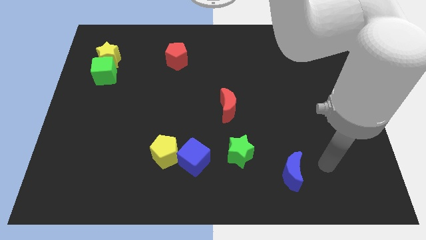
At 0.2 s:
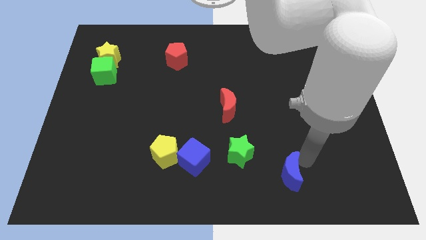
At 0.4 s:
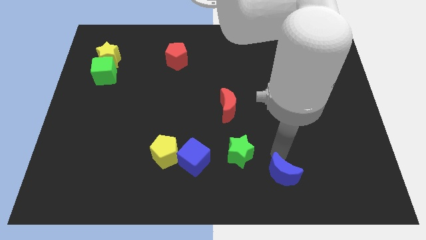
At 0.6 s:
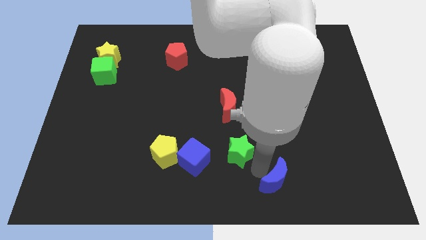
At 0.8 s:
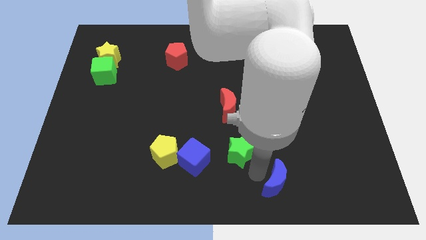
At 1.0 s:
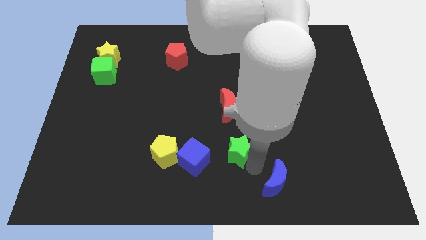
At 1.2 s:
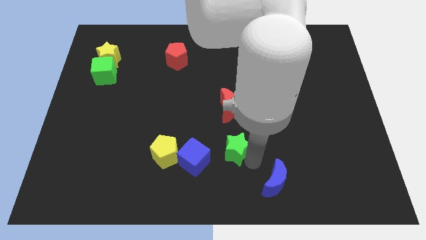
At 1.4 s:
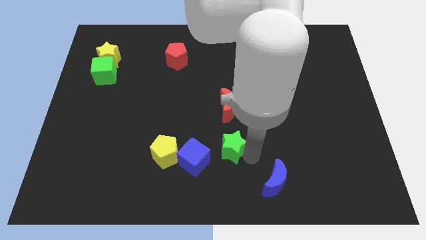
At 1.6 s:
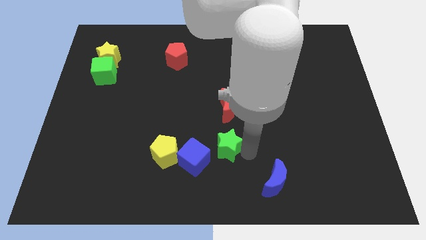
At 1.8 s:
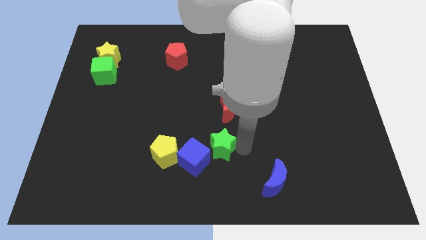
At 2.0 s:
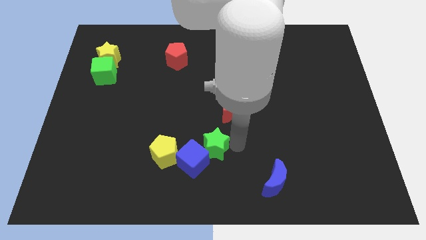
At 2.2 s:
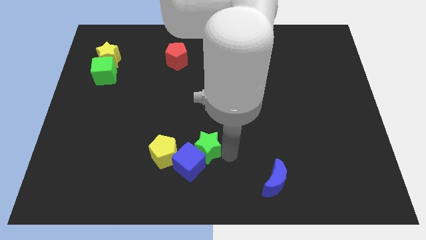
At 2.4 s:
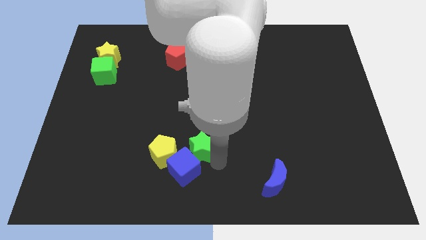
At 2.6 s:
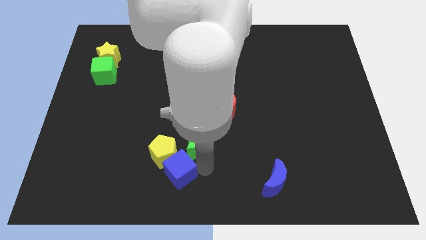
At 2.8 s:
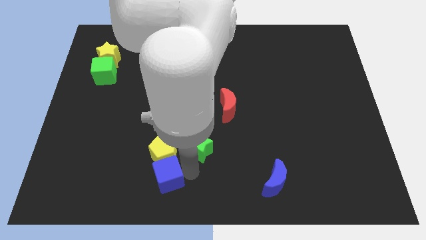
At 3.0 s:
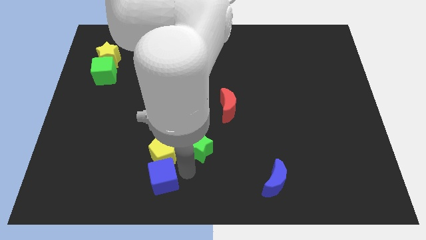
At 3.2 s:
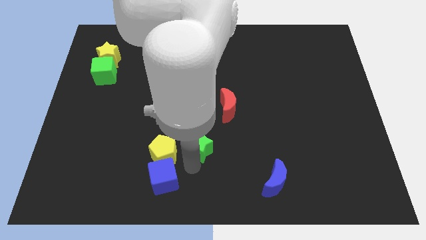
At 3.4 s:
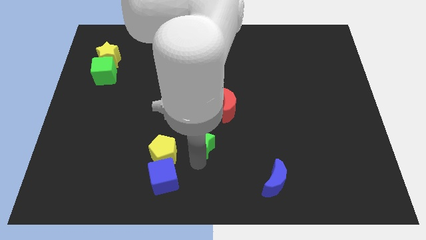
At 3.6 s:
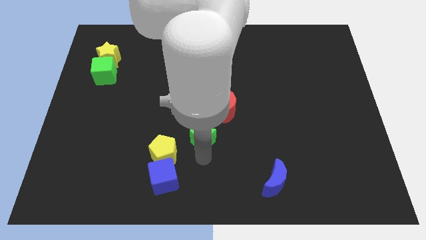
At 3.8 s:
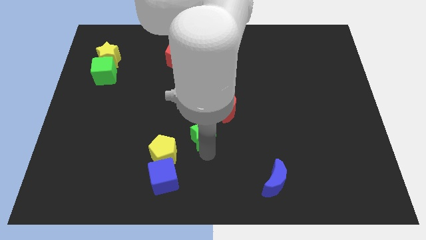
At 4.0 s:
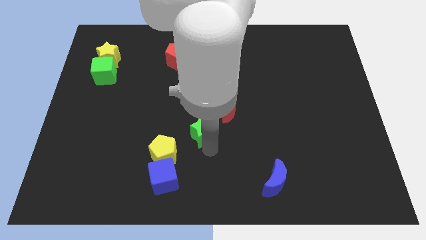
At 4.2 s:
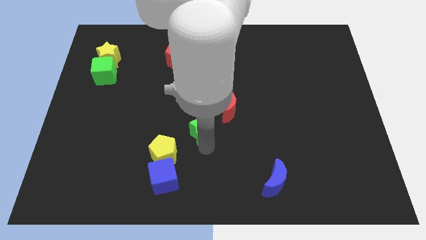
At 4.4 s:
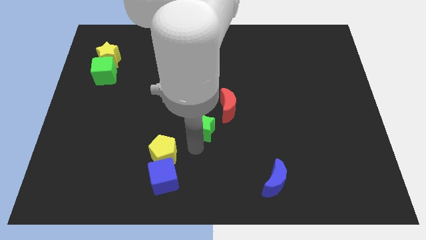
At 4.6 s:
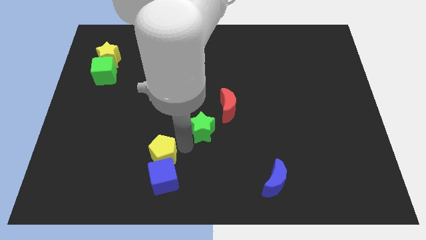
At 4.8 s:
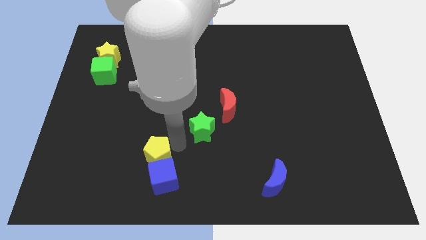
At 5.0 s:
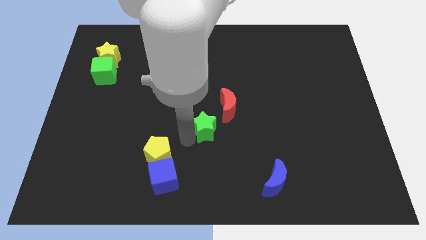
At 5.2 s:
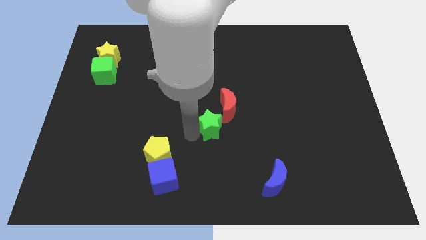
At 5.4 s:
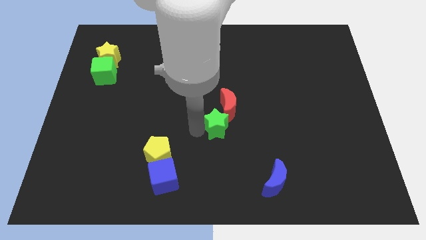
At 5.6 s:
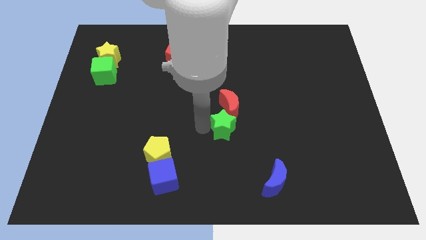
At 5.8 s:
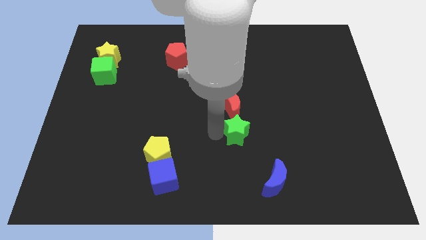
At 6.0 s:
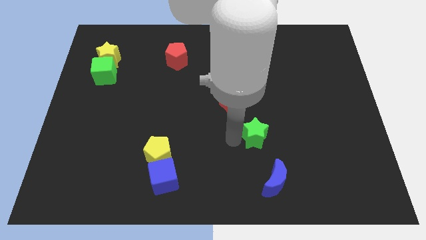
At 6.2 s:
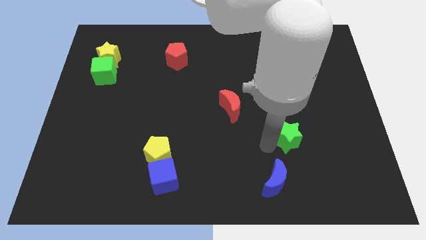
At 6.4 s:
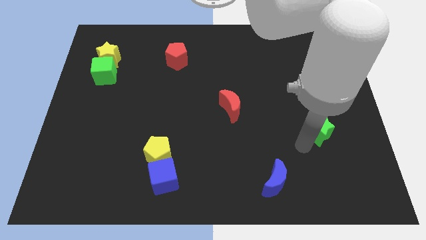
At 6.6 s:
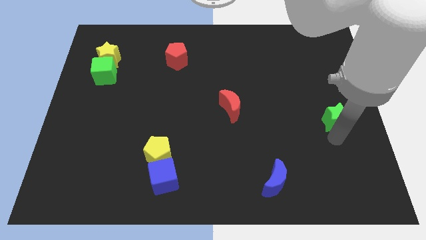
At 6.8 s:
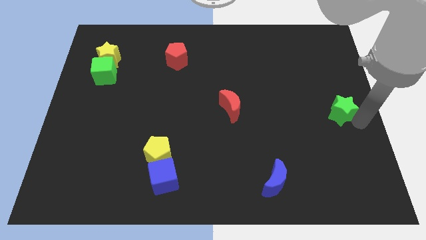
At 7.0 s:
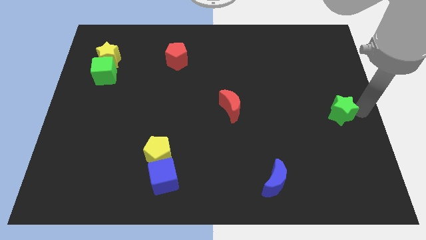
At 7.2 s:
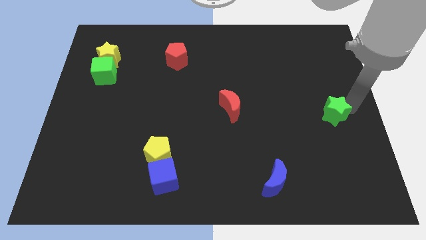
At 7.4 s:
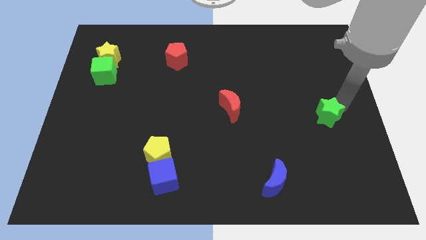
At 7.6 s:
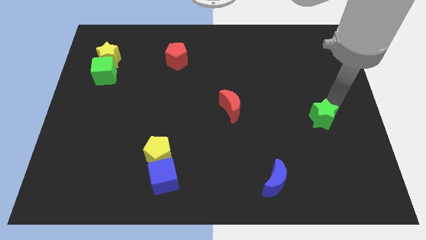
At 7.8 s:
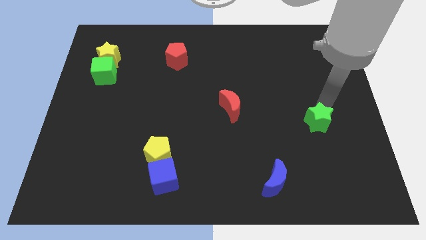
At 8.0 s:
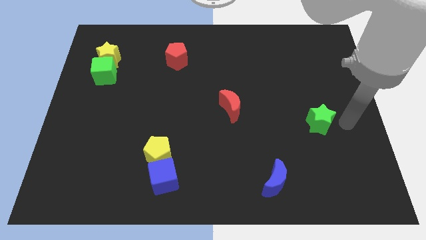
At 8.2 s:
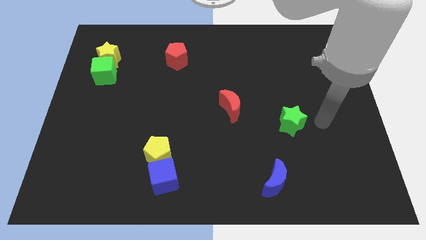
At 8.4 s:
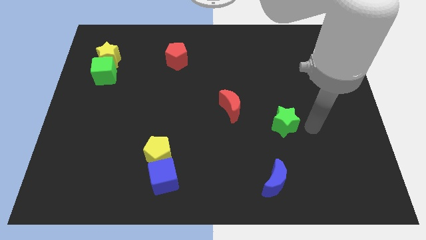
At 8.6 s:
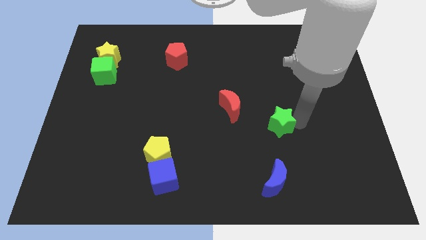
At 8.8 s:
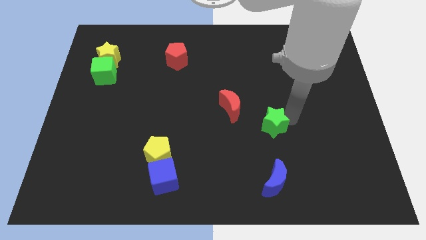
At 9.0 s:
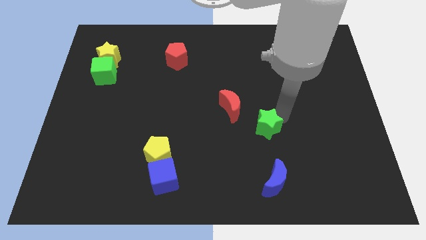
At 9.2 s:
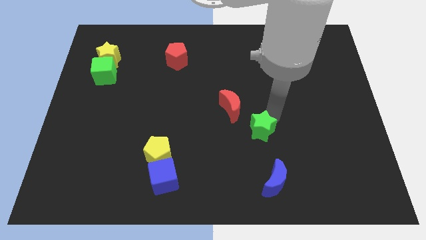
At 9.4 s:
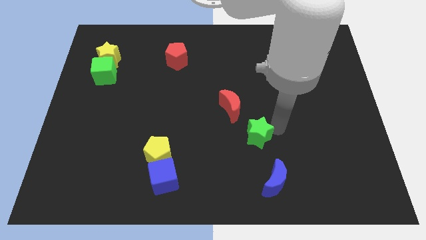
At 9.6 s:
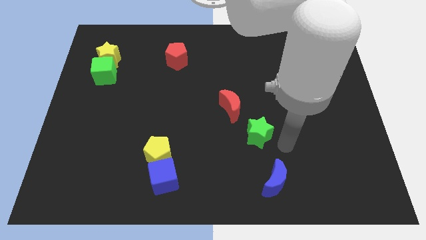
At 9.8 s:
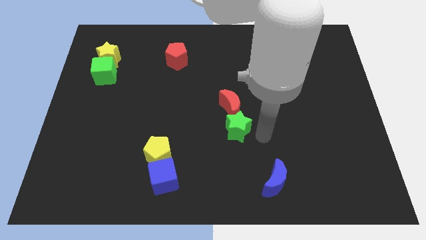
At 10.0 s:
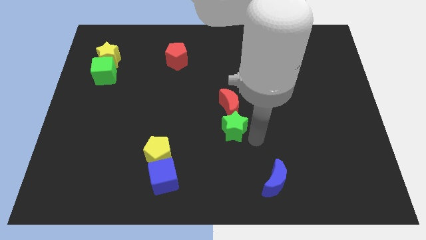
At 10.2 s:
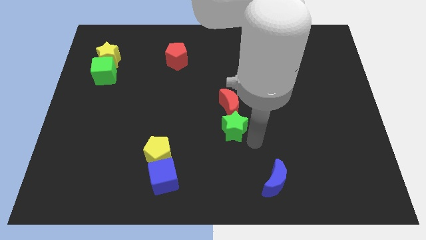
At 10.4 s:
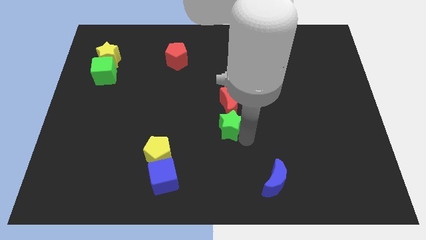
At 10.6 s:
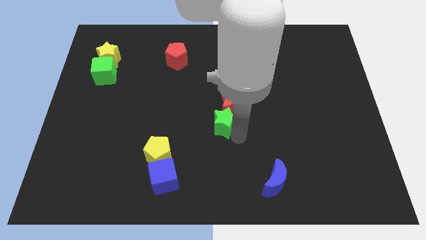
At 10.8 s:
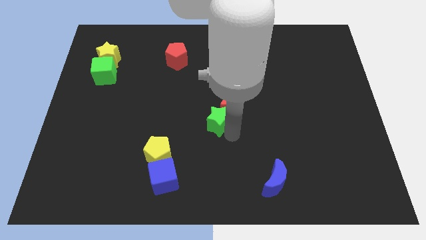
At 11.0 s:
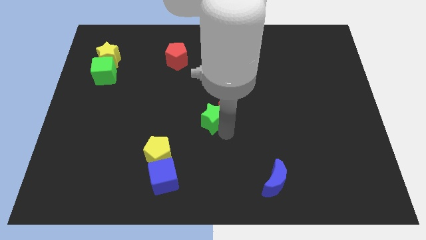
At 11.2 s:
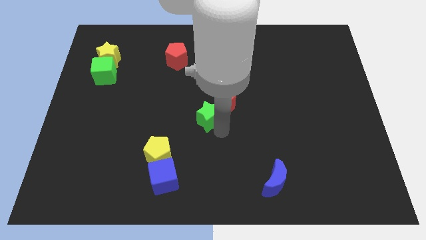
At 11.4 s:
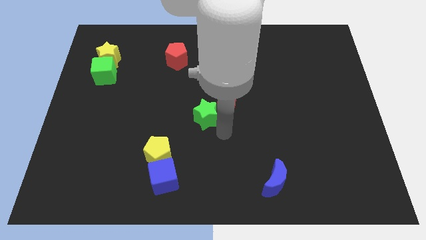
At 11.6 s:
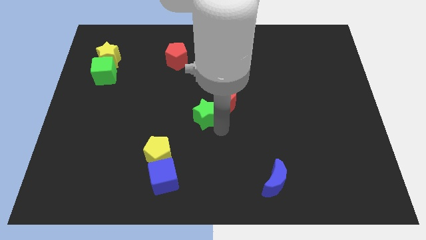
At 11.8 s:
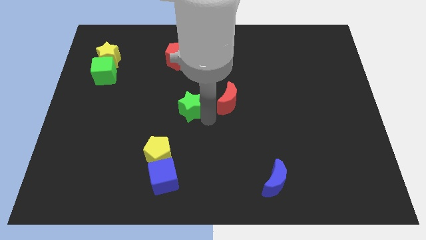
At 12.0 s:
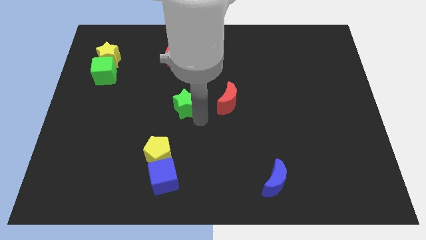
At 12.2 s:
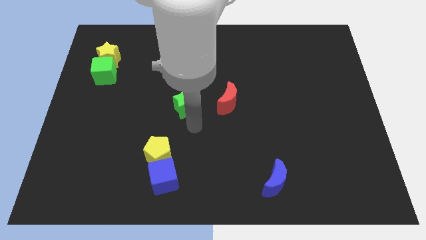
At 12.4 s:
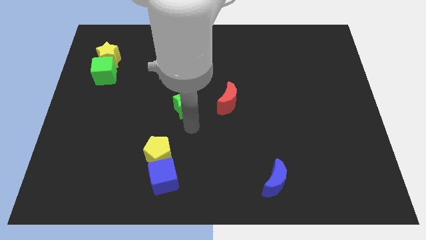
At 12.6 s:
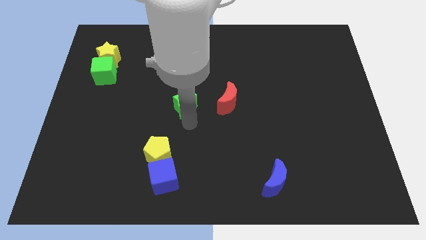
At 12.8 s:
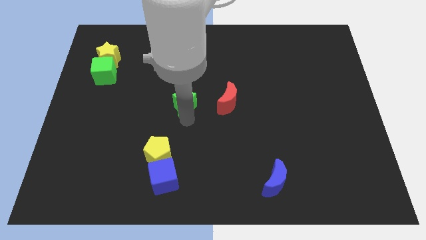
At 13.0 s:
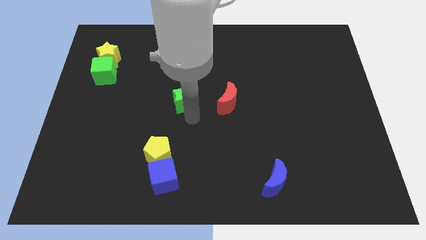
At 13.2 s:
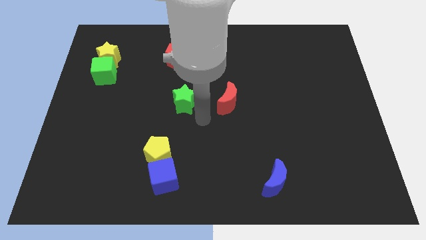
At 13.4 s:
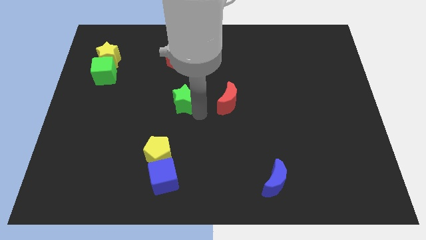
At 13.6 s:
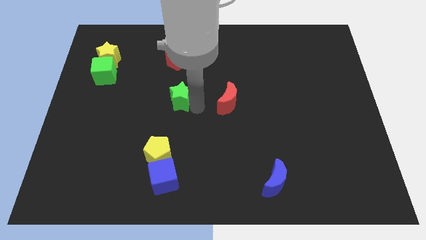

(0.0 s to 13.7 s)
slide the green star up and then to the left

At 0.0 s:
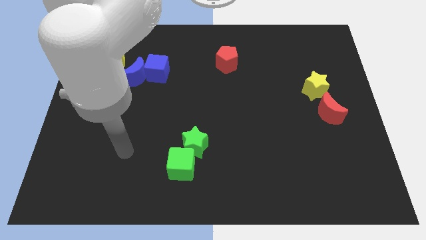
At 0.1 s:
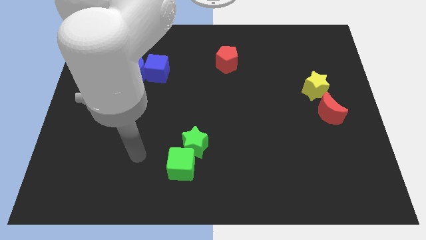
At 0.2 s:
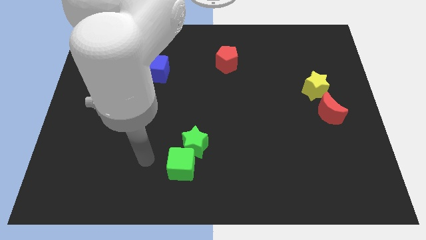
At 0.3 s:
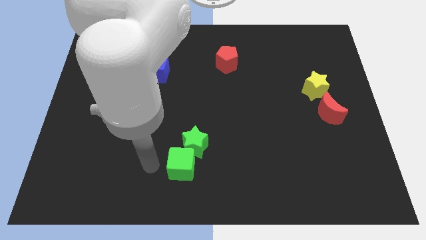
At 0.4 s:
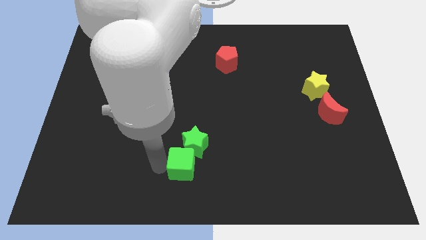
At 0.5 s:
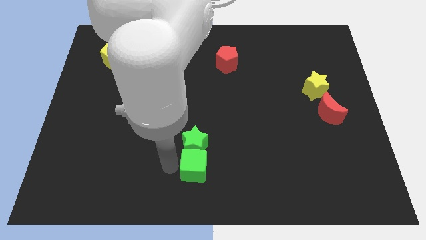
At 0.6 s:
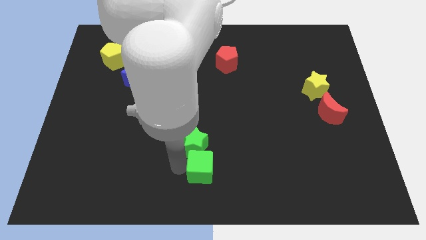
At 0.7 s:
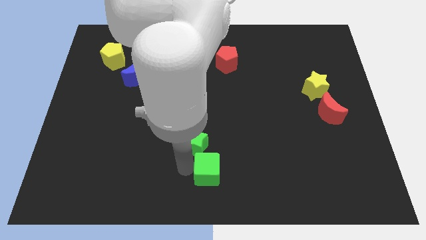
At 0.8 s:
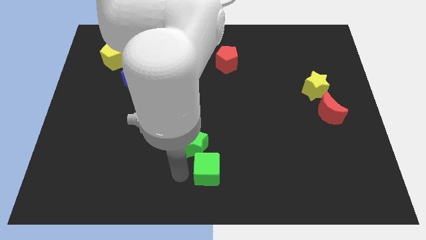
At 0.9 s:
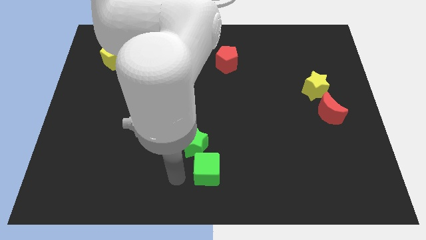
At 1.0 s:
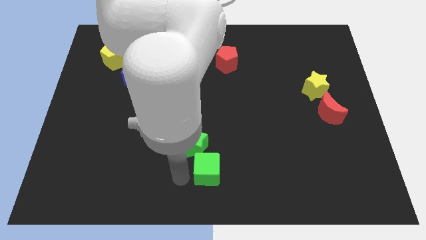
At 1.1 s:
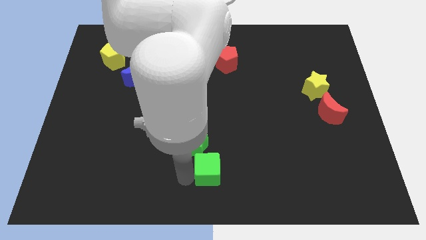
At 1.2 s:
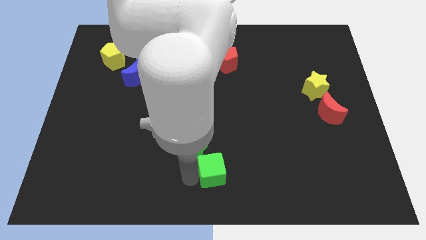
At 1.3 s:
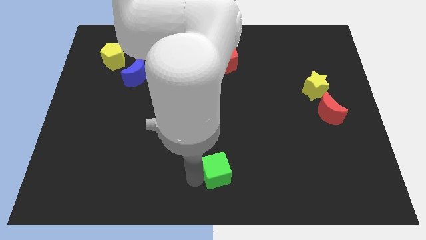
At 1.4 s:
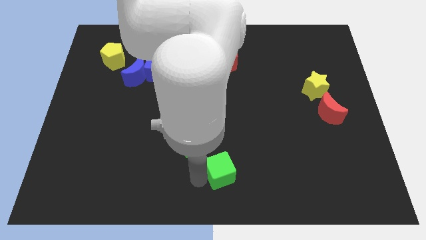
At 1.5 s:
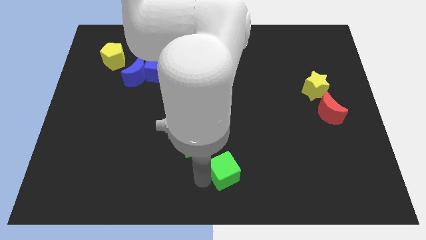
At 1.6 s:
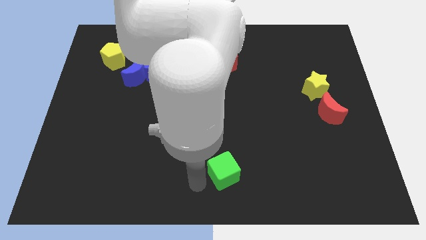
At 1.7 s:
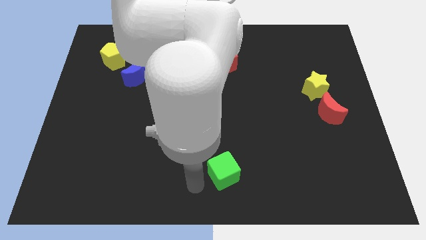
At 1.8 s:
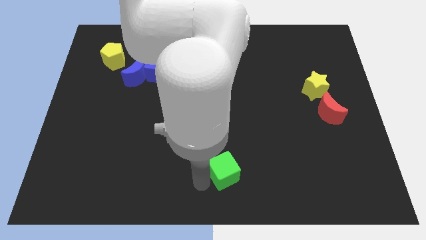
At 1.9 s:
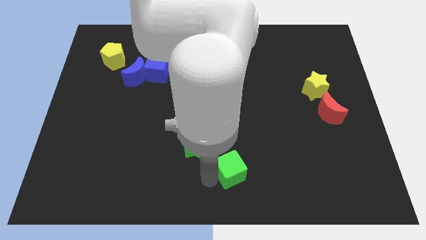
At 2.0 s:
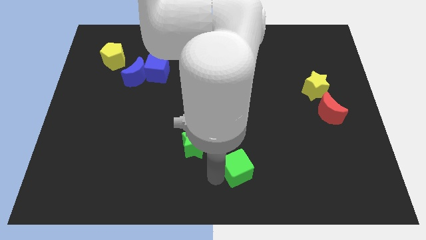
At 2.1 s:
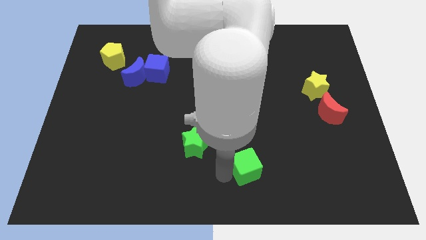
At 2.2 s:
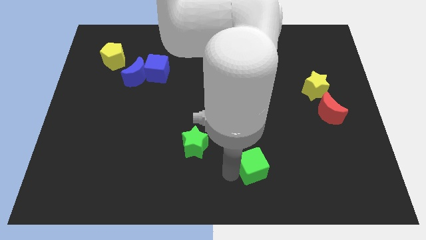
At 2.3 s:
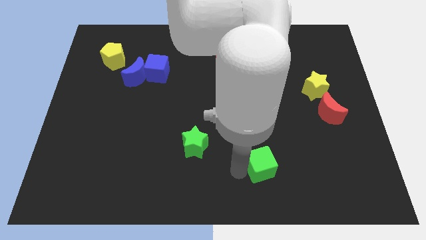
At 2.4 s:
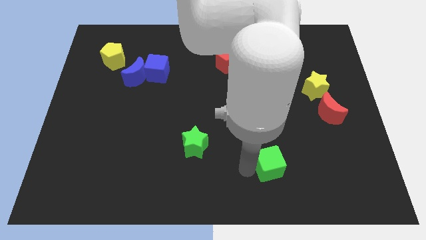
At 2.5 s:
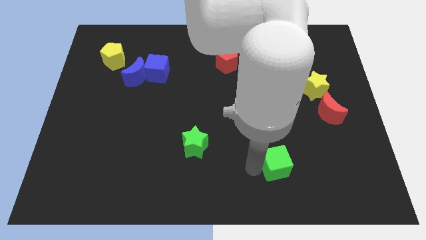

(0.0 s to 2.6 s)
push the green cube to the right
